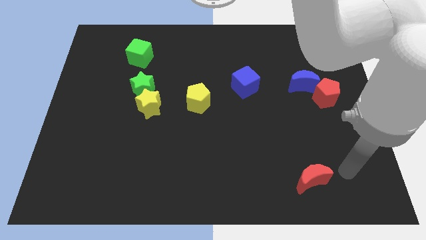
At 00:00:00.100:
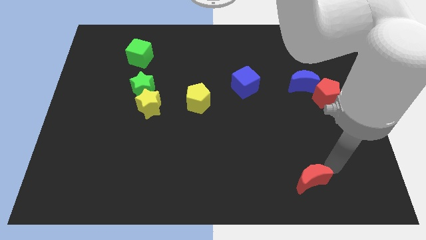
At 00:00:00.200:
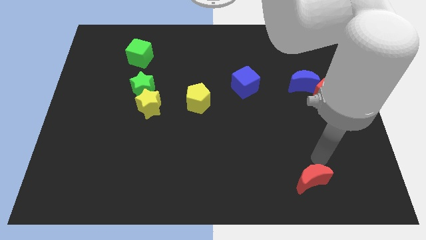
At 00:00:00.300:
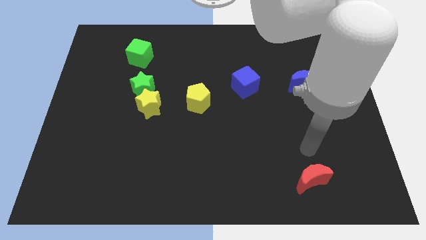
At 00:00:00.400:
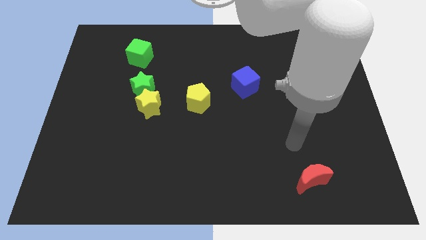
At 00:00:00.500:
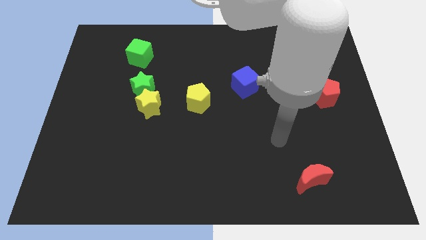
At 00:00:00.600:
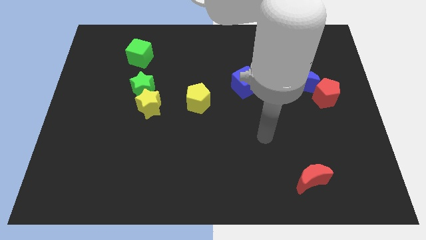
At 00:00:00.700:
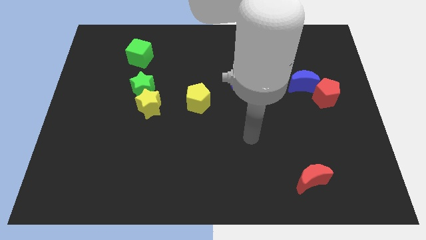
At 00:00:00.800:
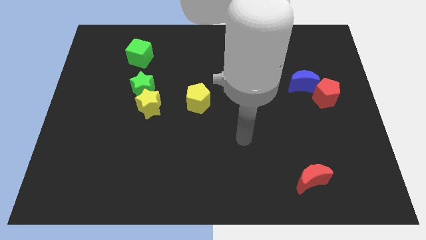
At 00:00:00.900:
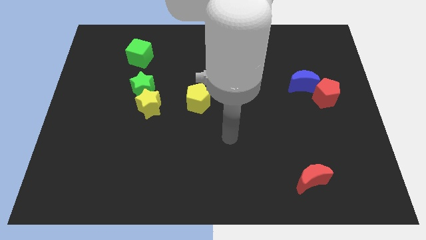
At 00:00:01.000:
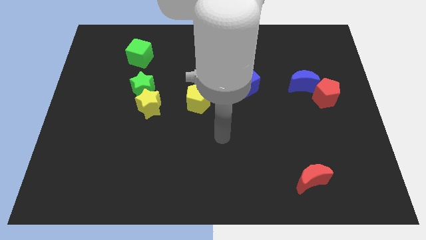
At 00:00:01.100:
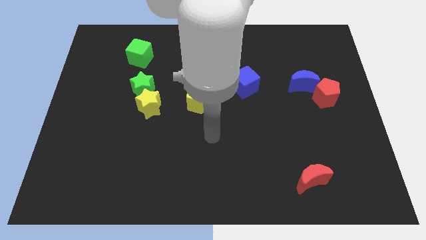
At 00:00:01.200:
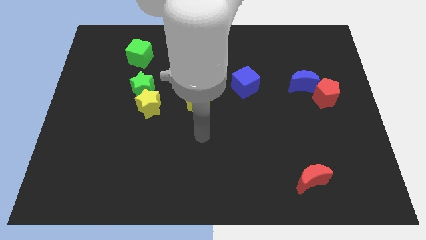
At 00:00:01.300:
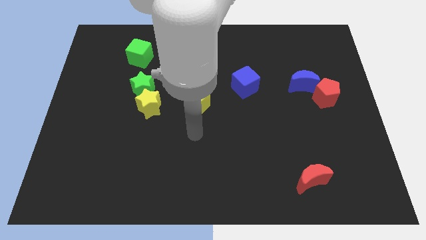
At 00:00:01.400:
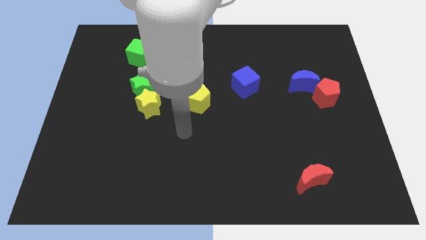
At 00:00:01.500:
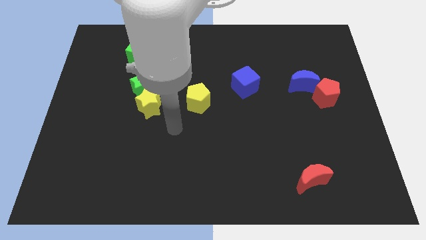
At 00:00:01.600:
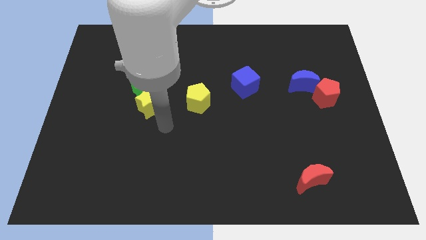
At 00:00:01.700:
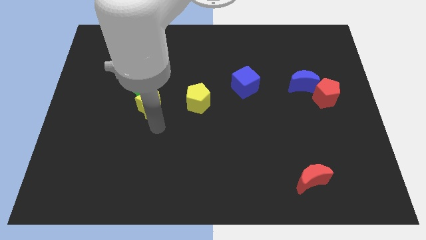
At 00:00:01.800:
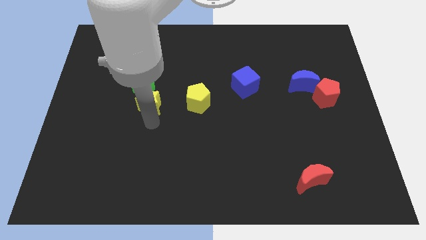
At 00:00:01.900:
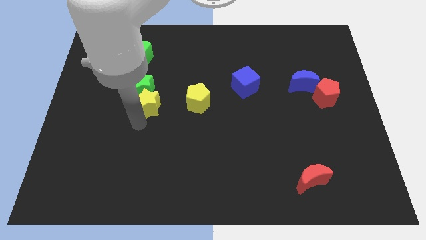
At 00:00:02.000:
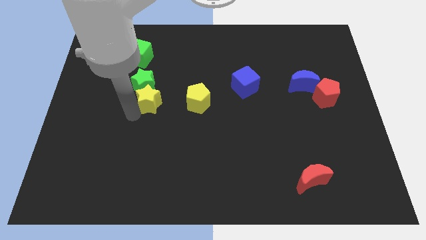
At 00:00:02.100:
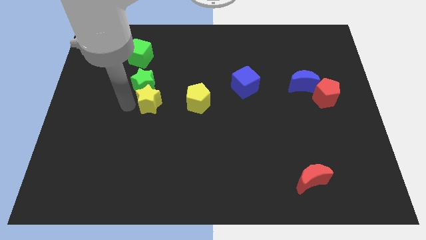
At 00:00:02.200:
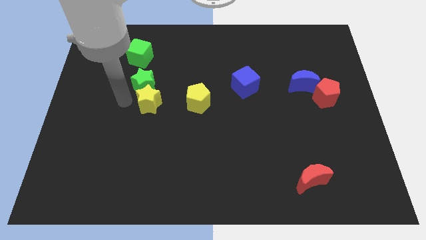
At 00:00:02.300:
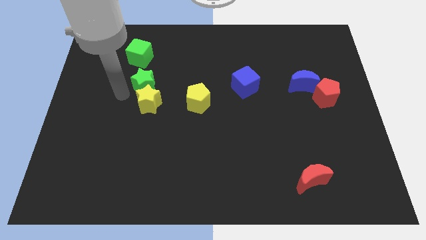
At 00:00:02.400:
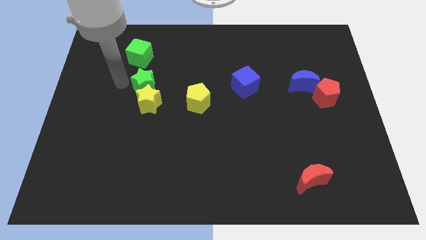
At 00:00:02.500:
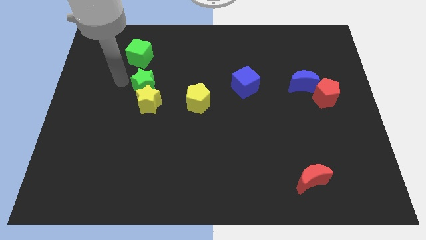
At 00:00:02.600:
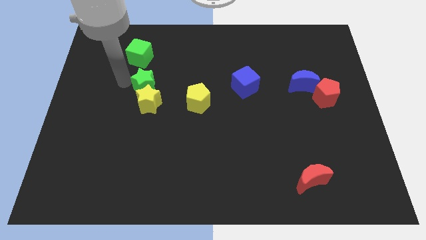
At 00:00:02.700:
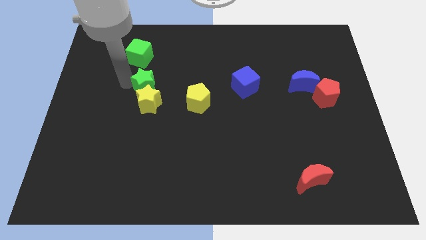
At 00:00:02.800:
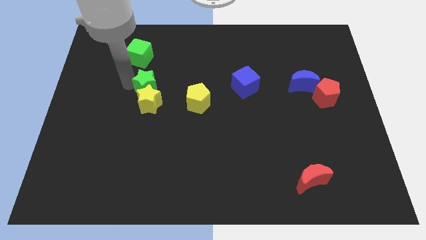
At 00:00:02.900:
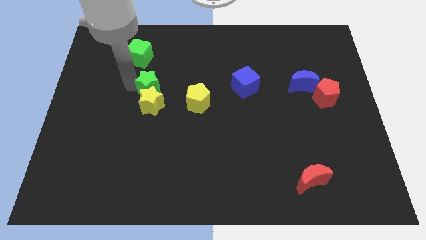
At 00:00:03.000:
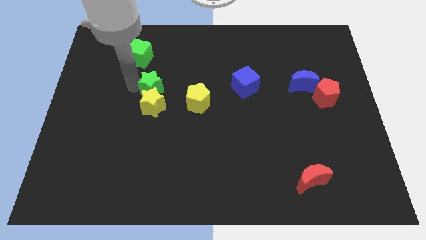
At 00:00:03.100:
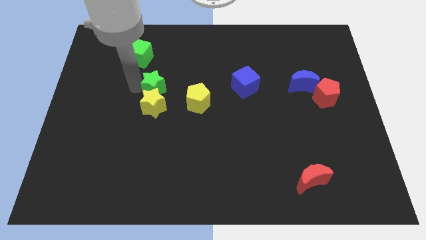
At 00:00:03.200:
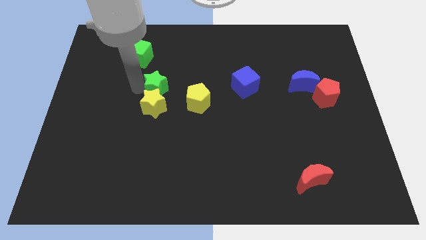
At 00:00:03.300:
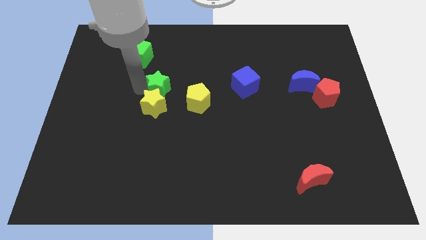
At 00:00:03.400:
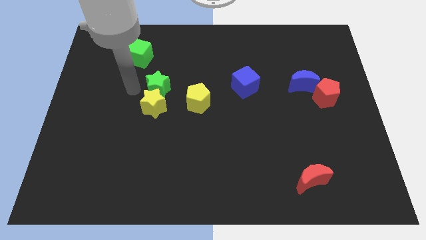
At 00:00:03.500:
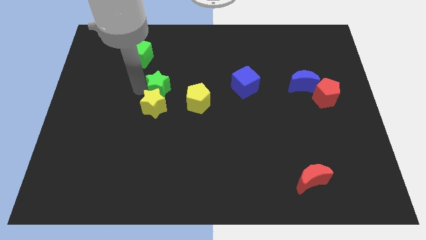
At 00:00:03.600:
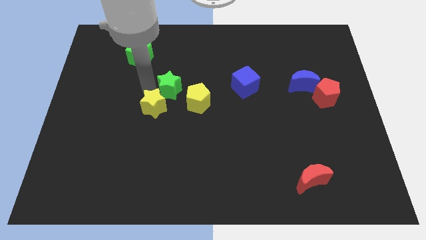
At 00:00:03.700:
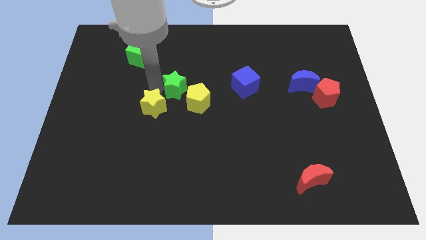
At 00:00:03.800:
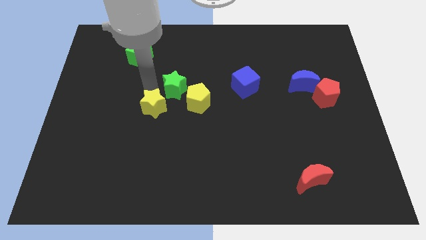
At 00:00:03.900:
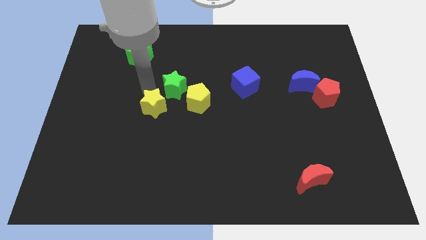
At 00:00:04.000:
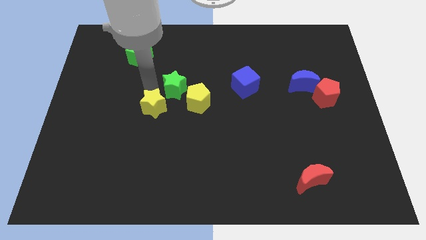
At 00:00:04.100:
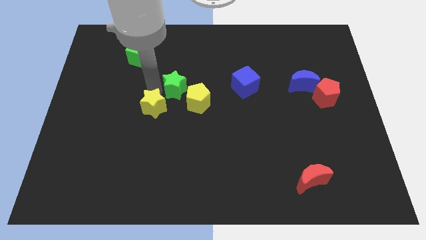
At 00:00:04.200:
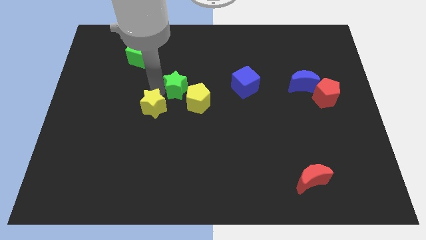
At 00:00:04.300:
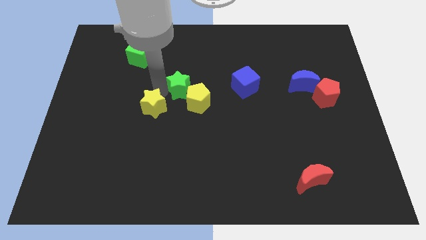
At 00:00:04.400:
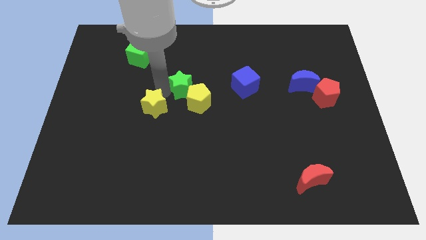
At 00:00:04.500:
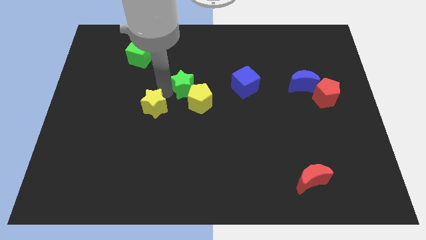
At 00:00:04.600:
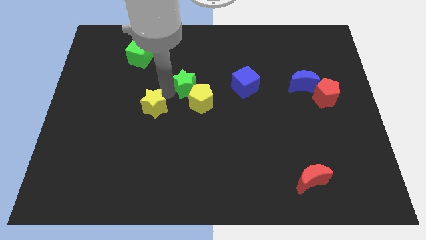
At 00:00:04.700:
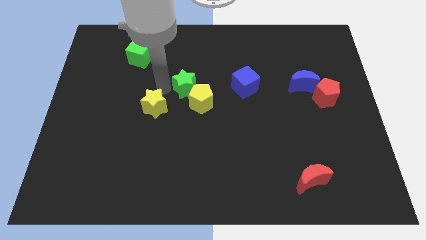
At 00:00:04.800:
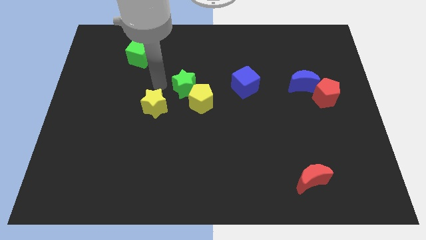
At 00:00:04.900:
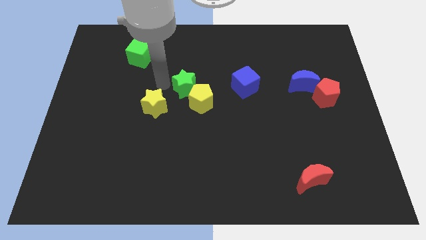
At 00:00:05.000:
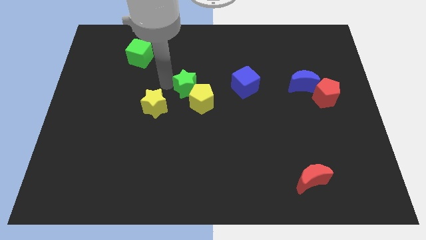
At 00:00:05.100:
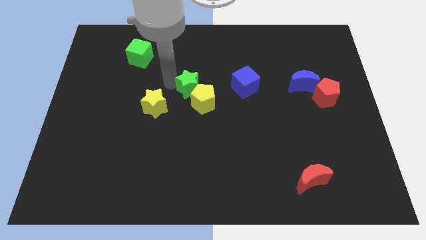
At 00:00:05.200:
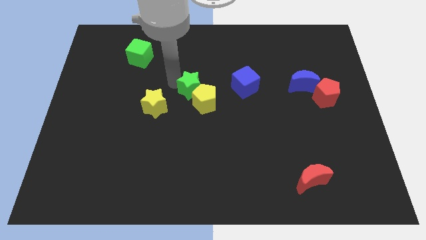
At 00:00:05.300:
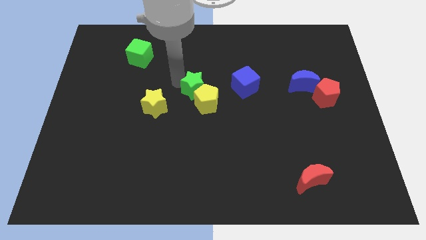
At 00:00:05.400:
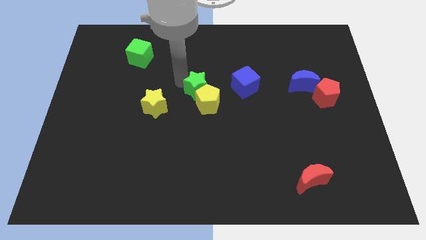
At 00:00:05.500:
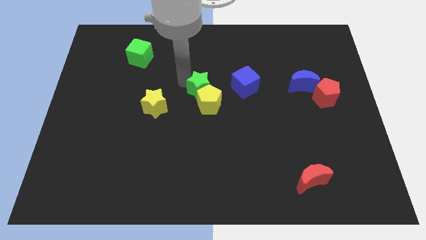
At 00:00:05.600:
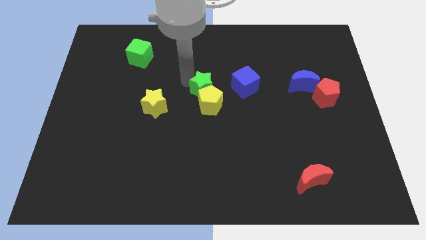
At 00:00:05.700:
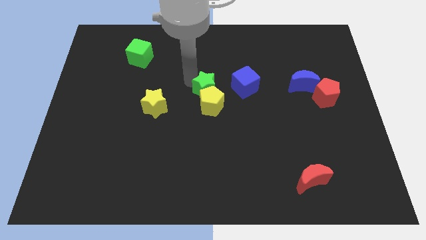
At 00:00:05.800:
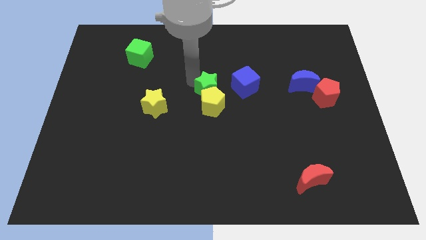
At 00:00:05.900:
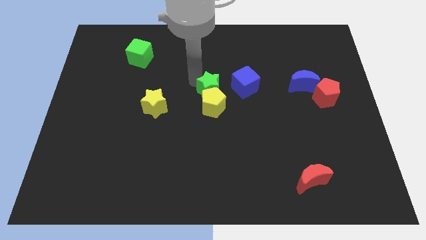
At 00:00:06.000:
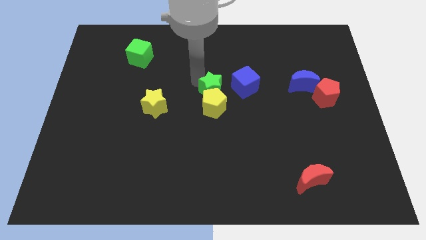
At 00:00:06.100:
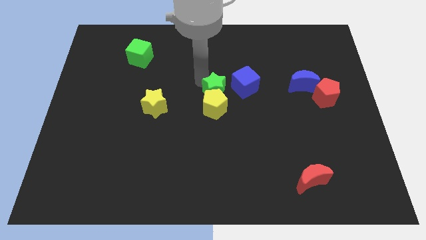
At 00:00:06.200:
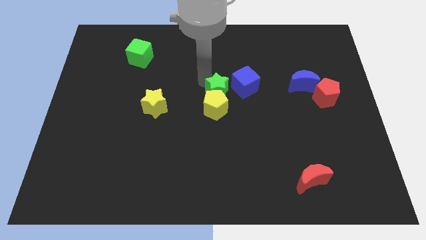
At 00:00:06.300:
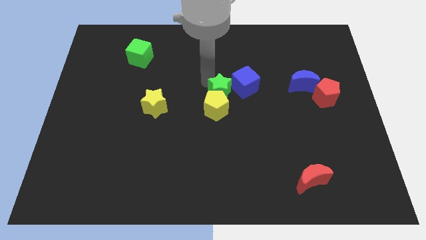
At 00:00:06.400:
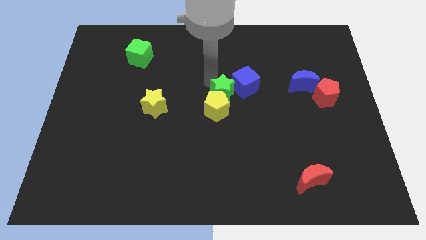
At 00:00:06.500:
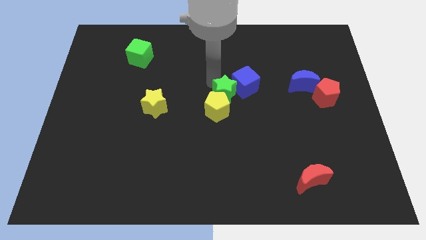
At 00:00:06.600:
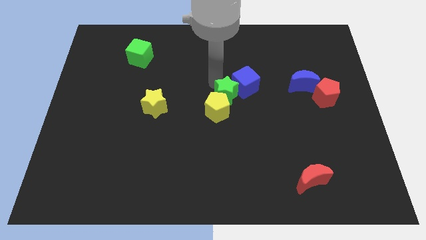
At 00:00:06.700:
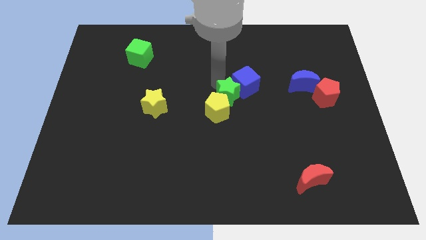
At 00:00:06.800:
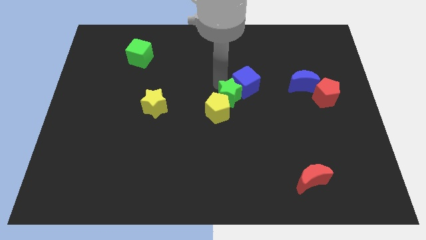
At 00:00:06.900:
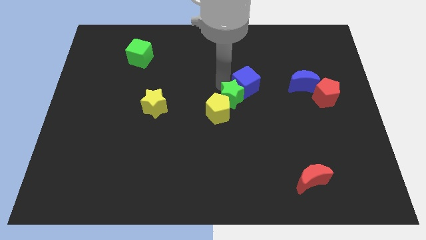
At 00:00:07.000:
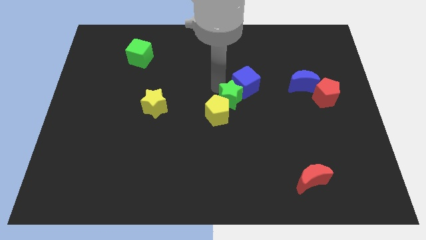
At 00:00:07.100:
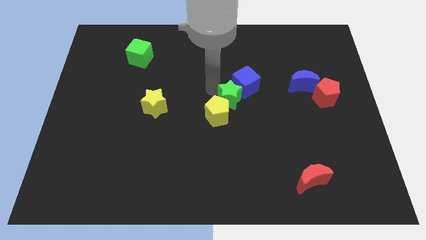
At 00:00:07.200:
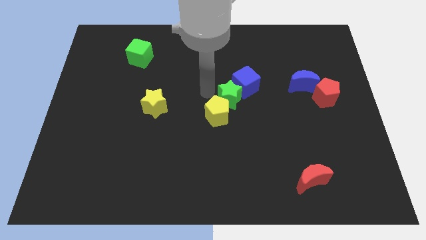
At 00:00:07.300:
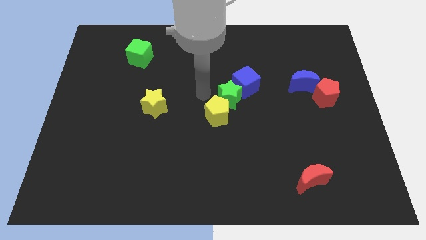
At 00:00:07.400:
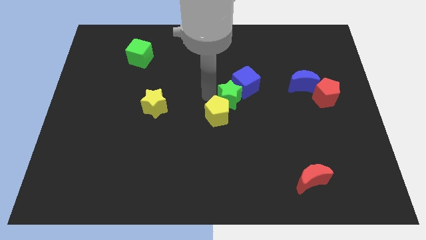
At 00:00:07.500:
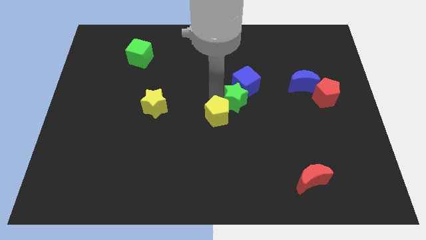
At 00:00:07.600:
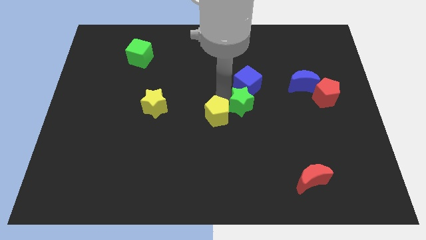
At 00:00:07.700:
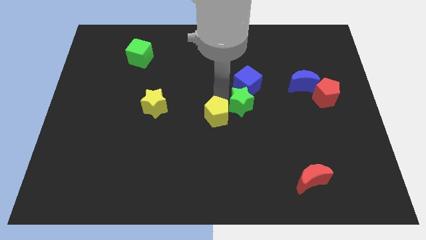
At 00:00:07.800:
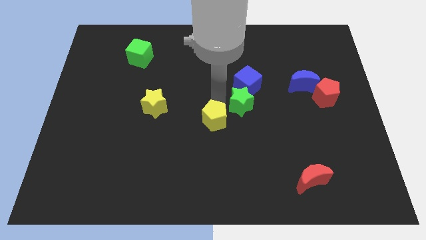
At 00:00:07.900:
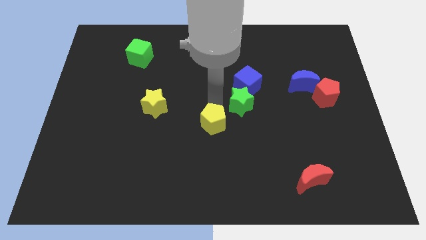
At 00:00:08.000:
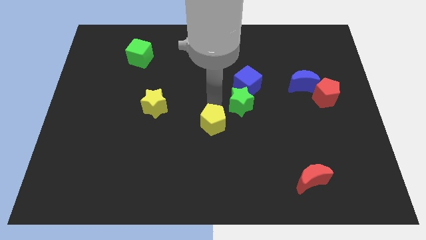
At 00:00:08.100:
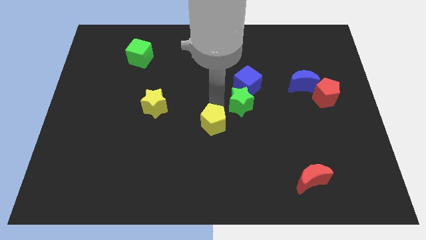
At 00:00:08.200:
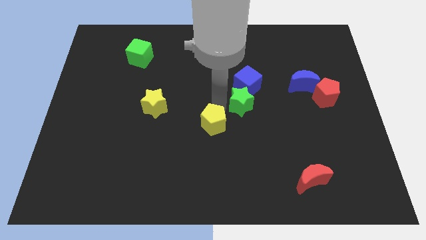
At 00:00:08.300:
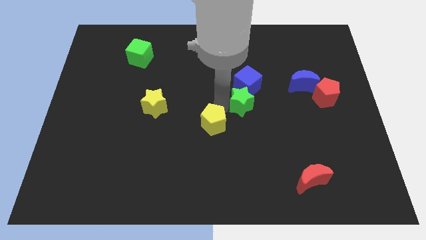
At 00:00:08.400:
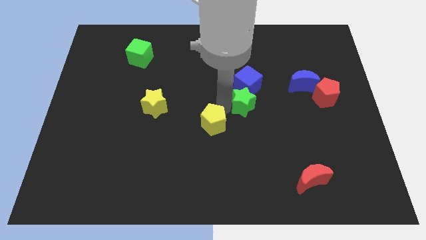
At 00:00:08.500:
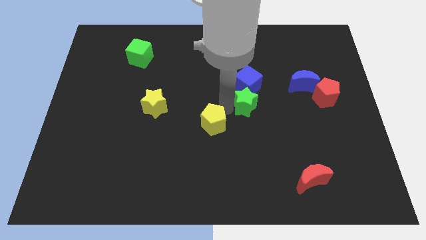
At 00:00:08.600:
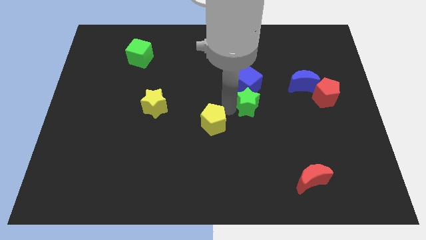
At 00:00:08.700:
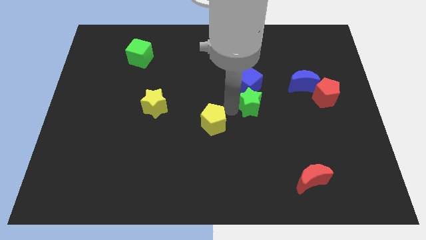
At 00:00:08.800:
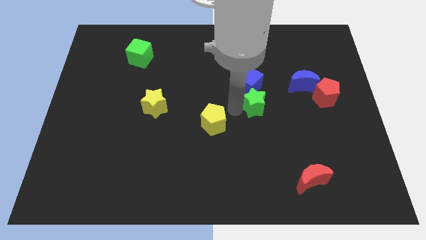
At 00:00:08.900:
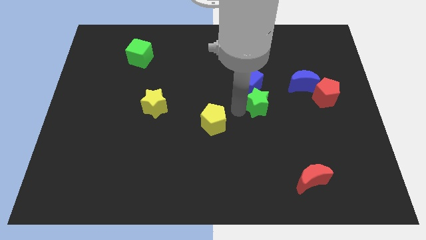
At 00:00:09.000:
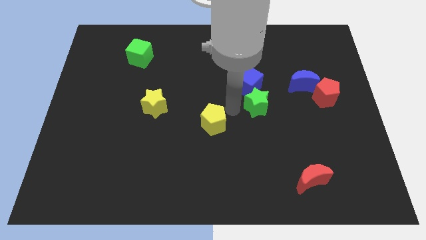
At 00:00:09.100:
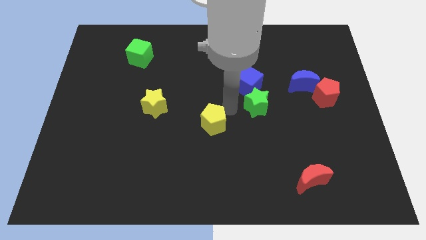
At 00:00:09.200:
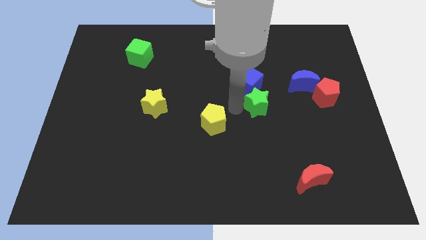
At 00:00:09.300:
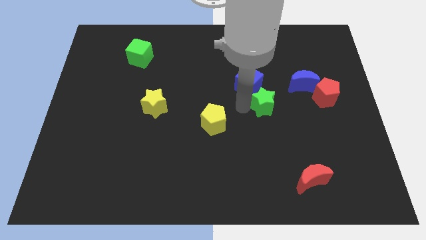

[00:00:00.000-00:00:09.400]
move the green star diagonally down and to the left of the blue moon
